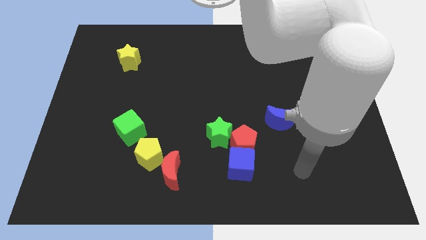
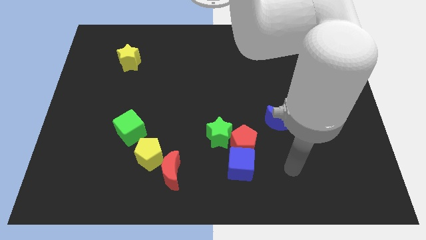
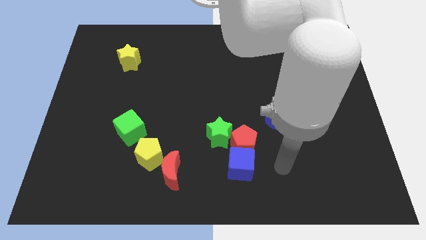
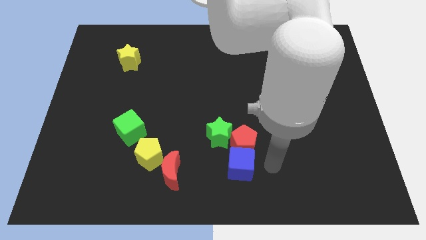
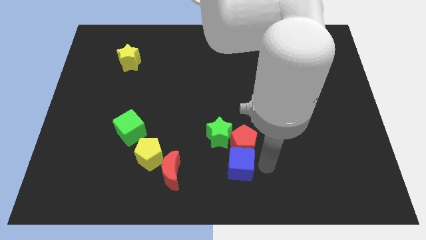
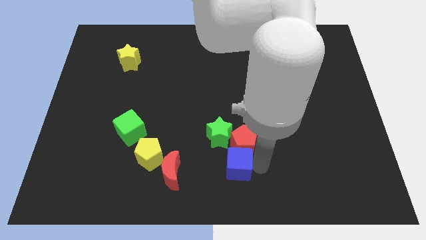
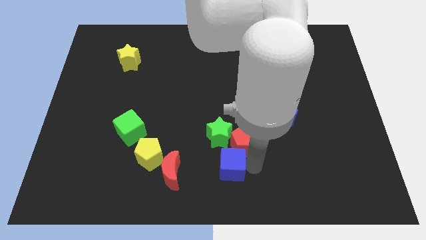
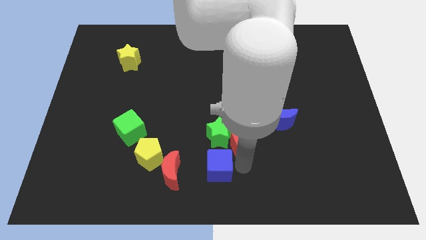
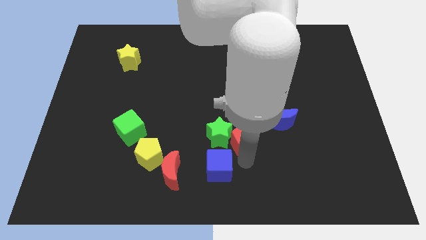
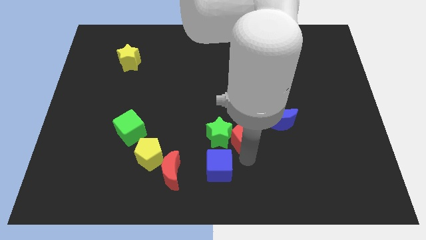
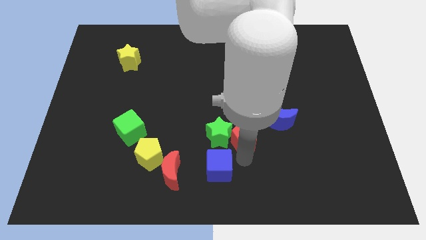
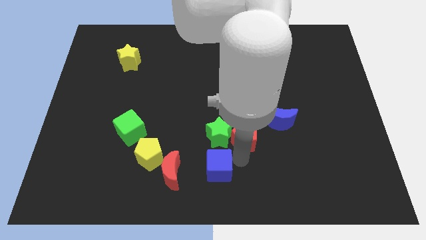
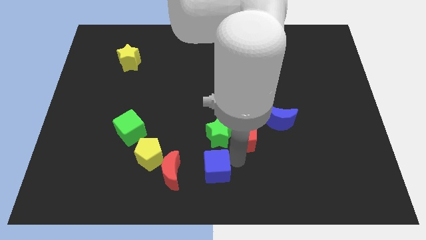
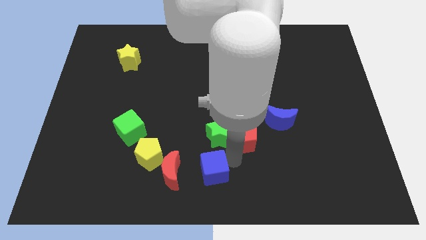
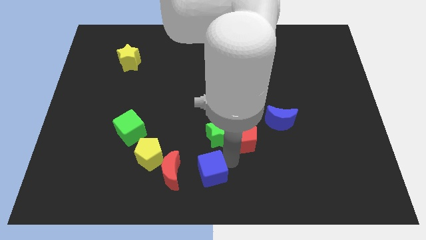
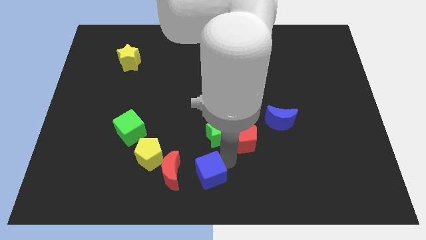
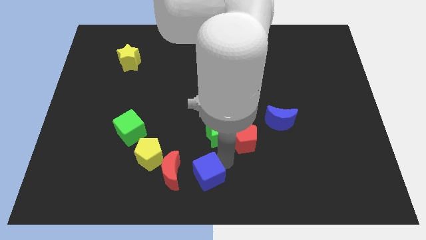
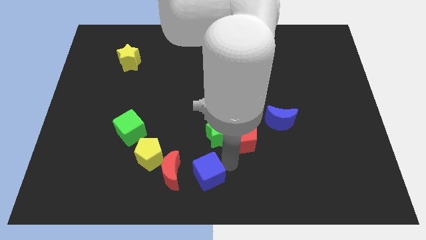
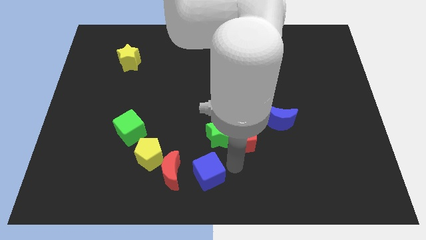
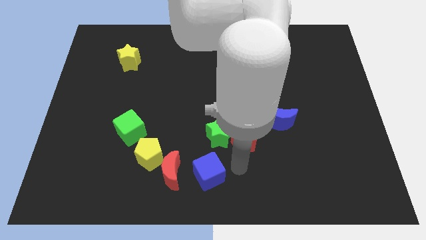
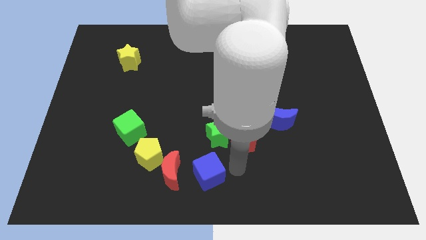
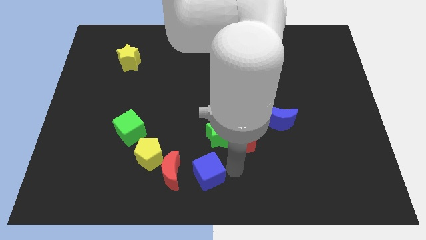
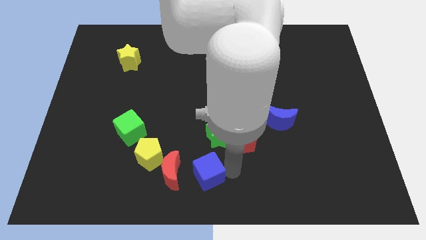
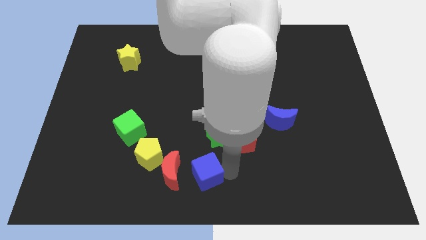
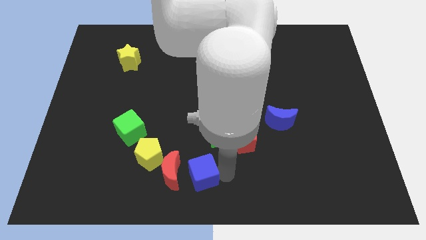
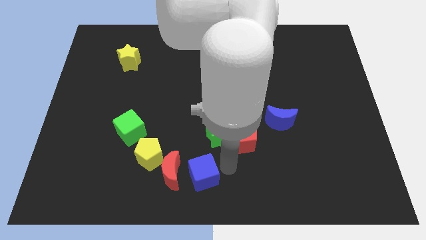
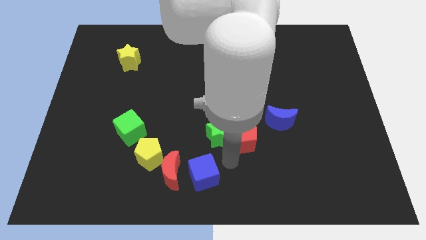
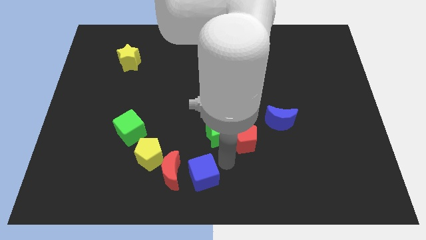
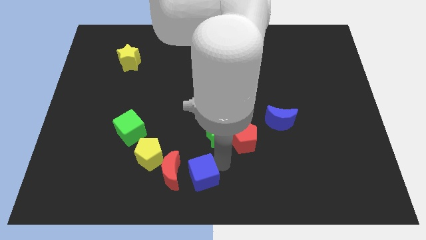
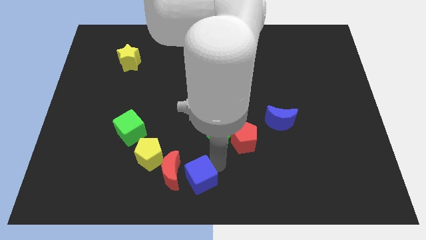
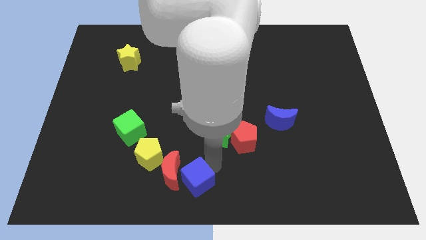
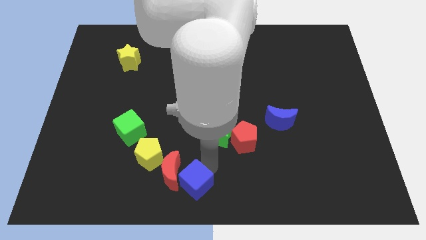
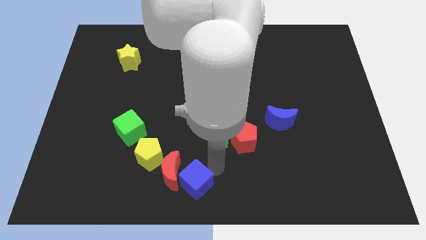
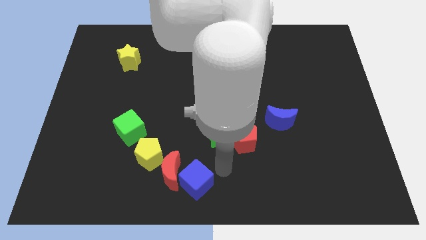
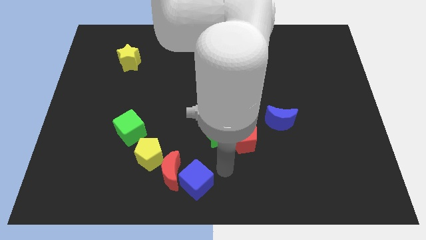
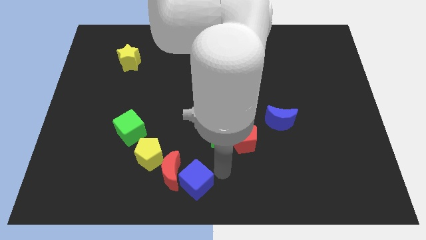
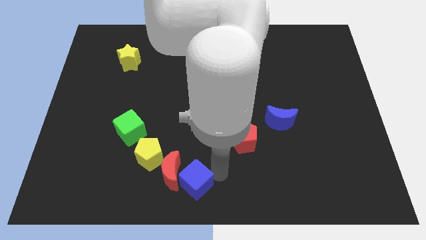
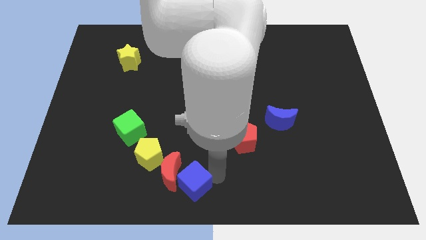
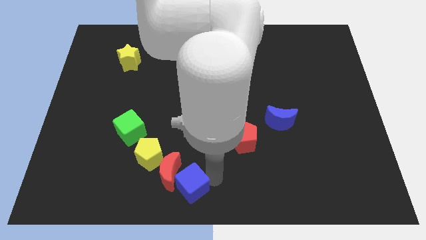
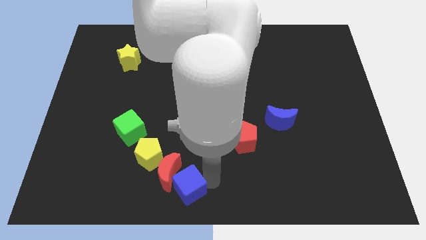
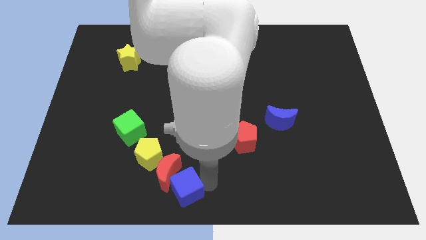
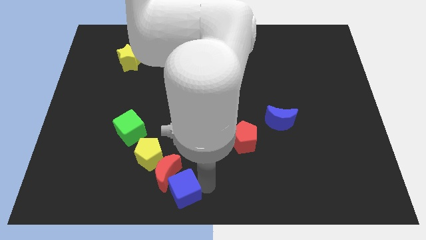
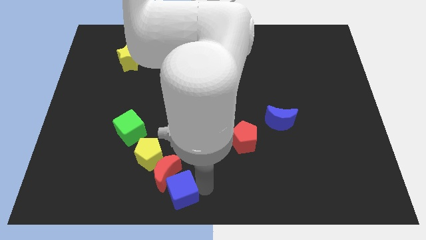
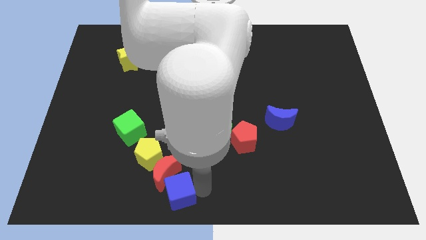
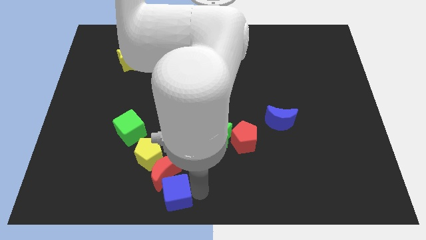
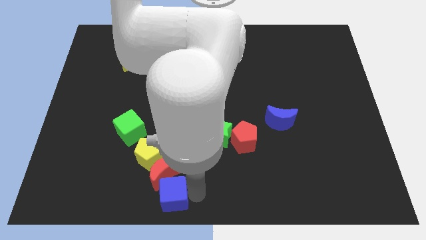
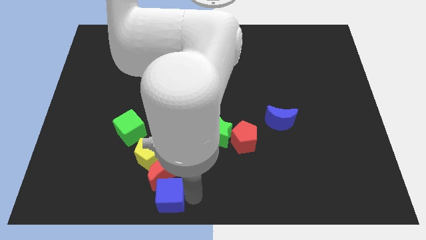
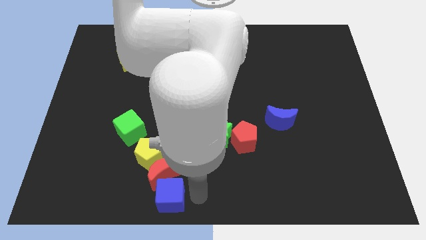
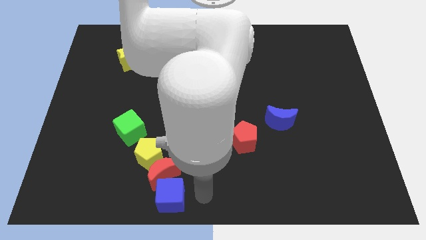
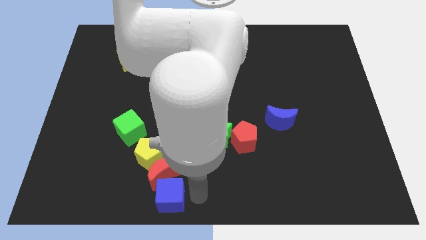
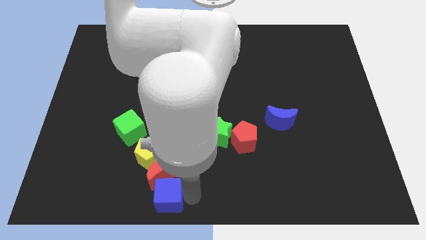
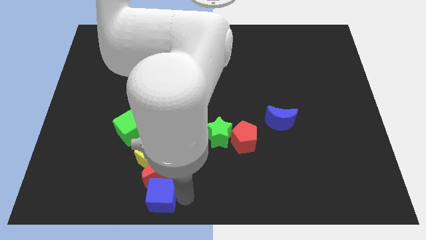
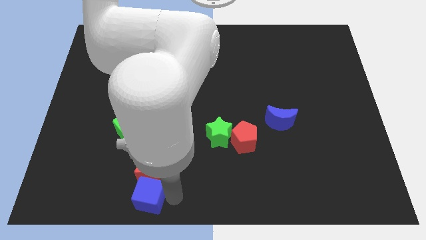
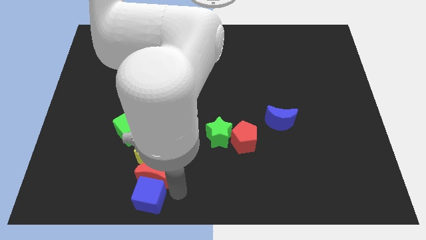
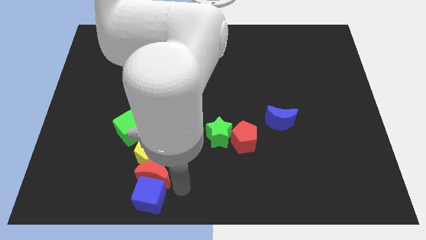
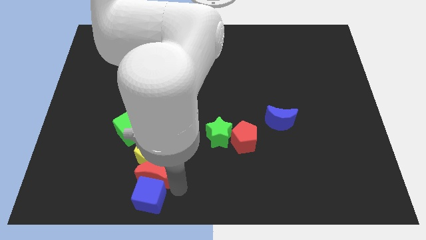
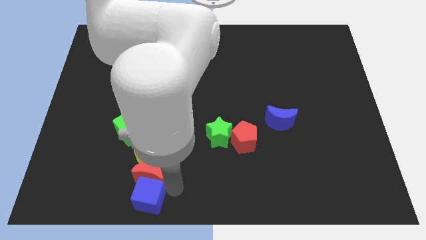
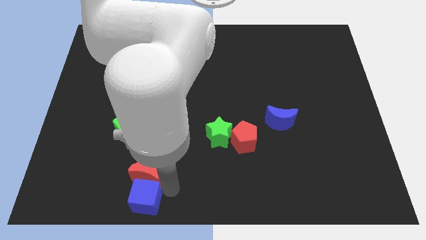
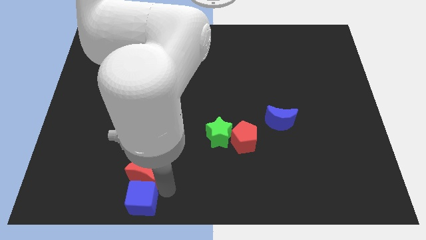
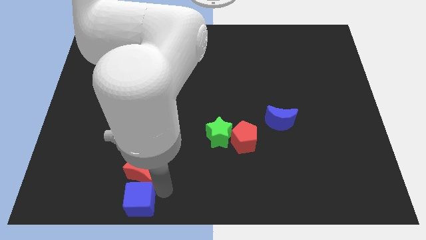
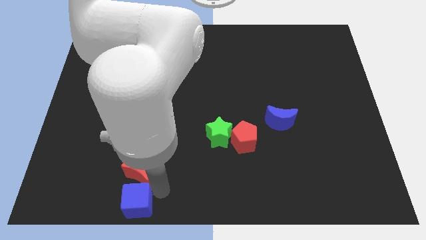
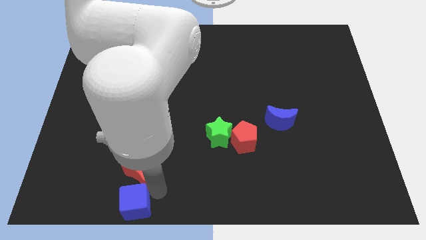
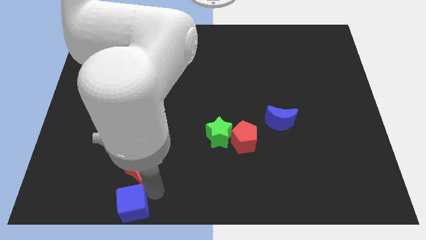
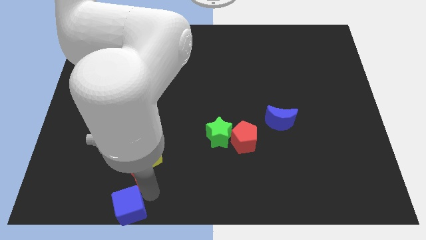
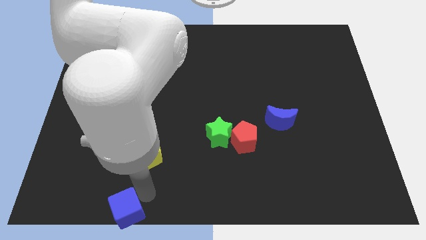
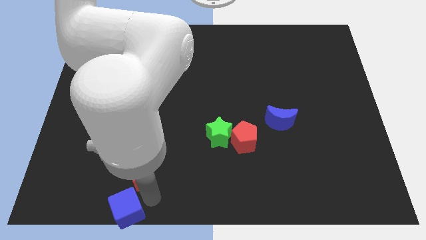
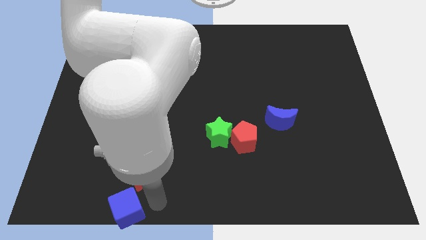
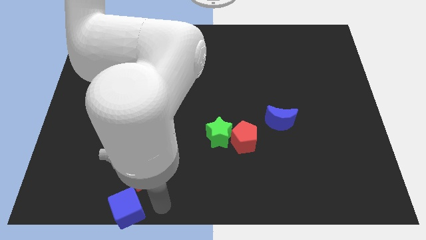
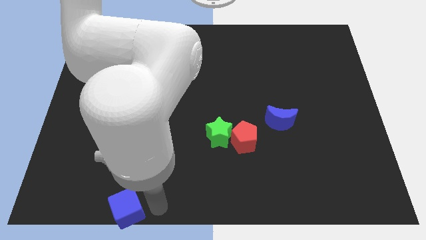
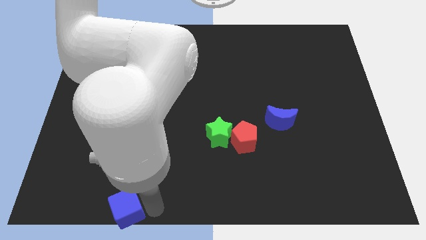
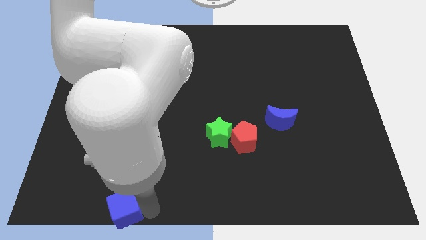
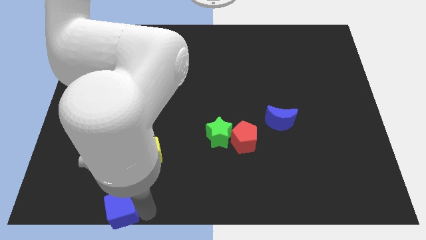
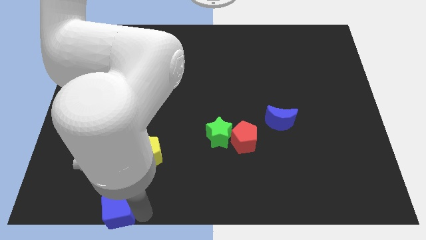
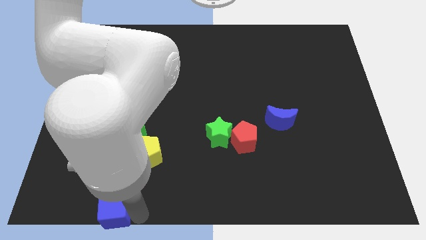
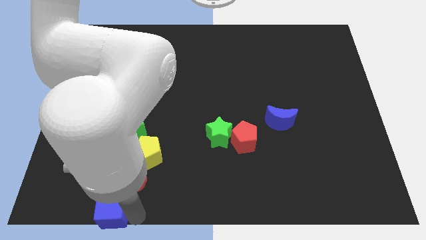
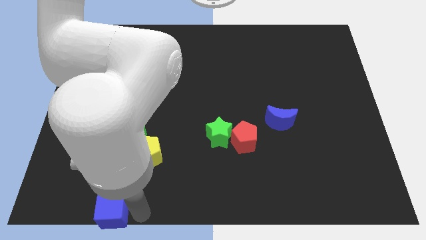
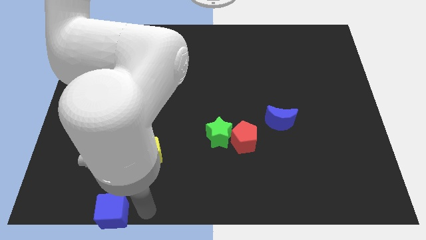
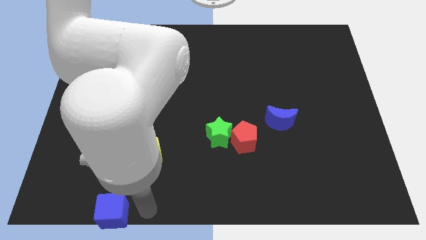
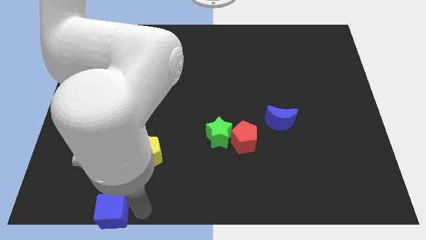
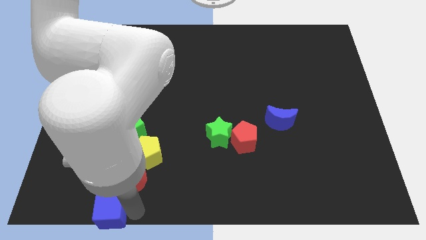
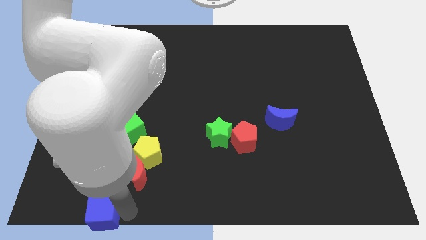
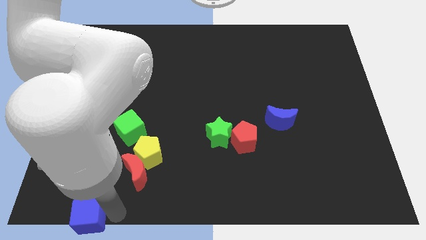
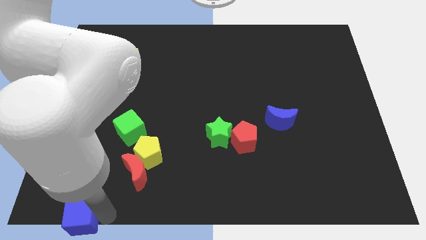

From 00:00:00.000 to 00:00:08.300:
slide the blue cube to the bottom left
